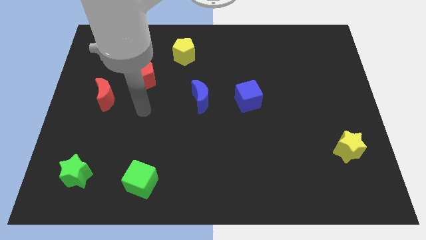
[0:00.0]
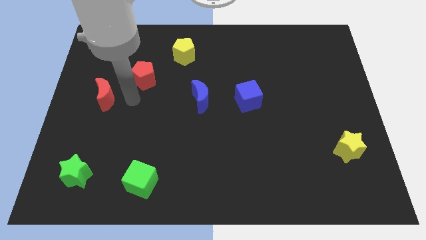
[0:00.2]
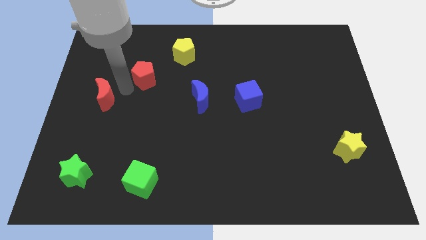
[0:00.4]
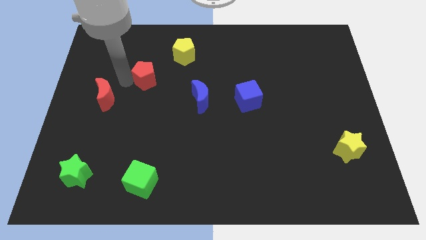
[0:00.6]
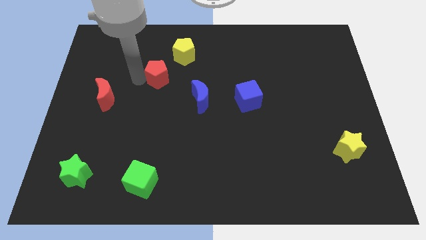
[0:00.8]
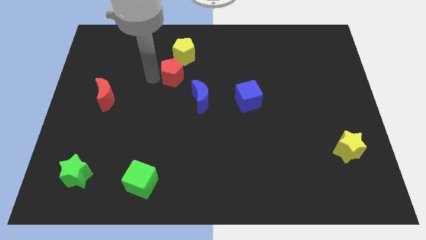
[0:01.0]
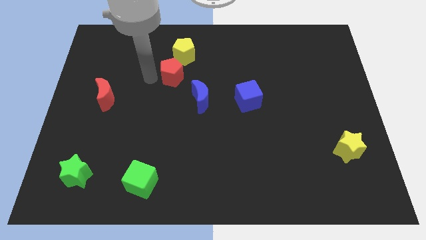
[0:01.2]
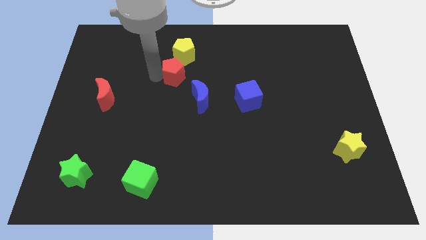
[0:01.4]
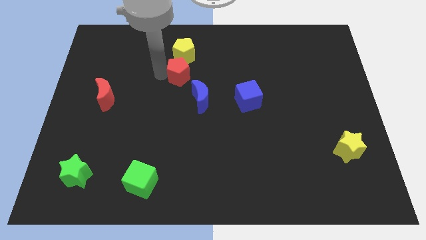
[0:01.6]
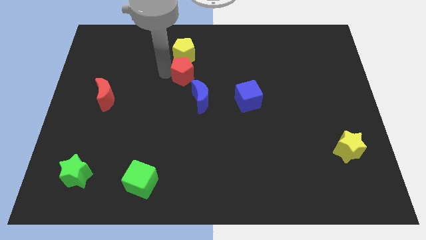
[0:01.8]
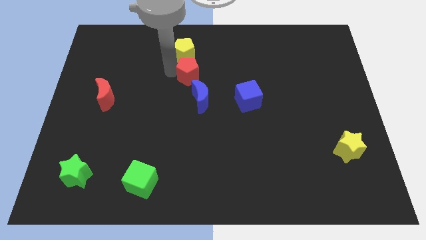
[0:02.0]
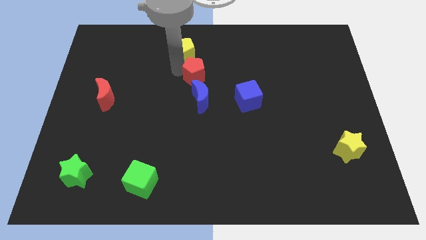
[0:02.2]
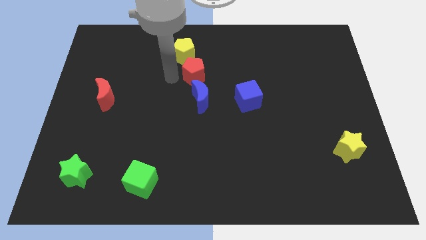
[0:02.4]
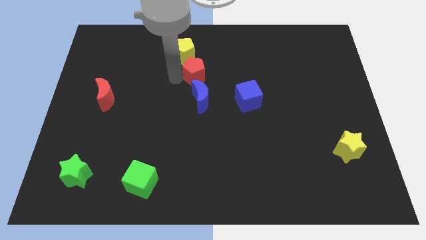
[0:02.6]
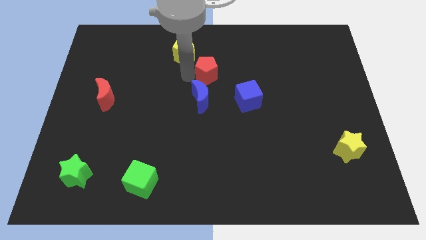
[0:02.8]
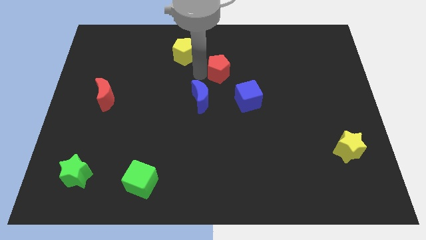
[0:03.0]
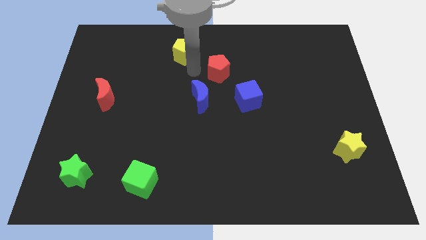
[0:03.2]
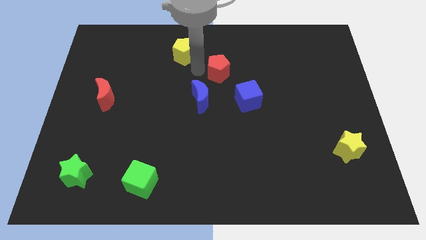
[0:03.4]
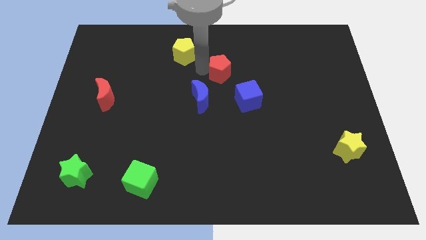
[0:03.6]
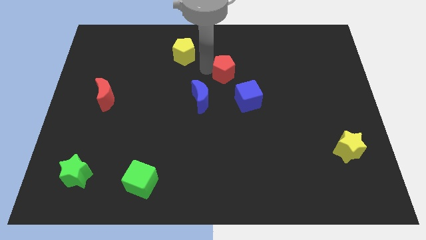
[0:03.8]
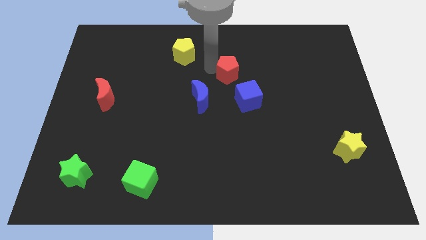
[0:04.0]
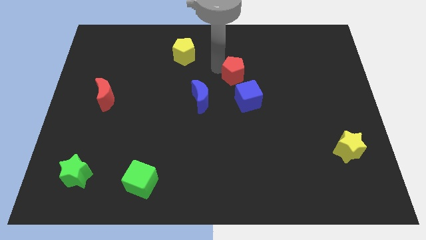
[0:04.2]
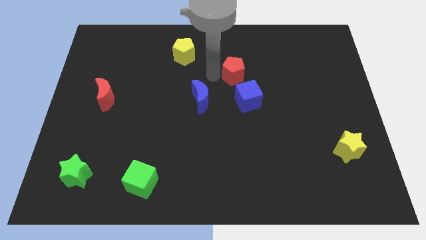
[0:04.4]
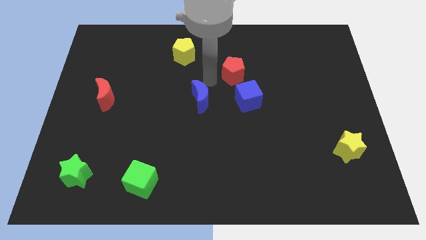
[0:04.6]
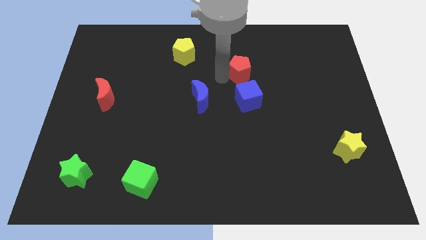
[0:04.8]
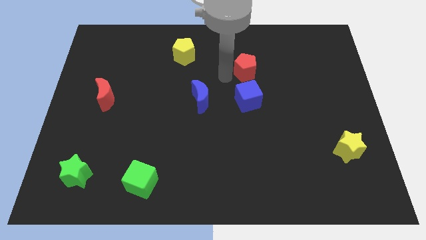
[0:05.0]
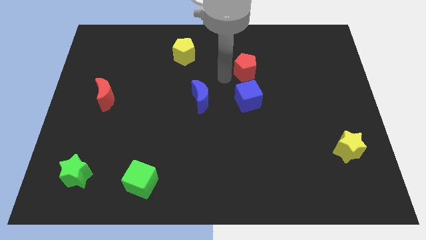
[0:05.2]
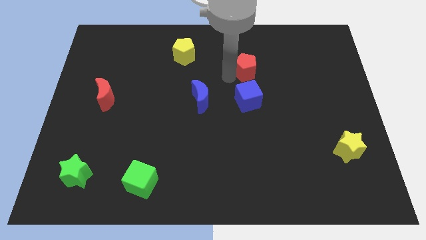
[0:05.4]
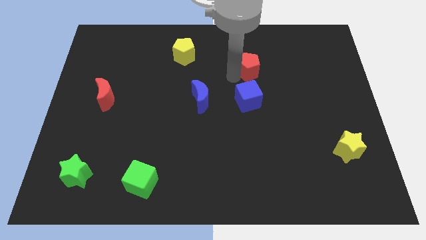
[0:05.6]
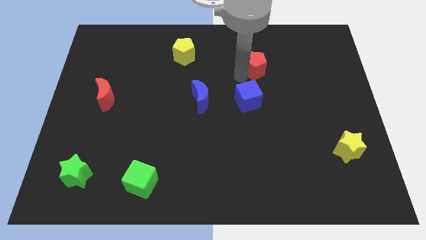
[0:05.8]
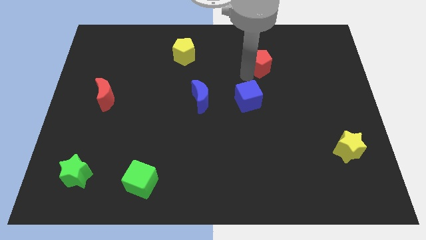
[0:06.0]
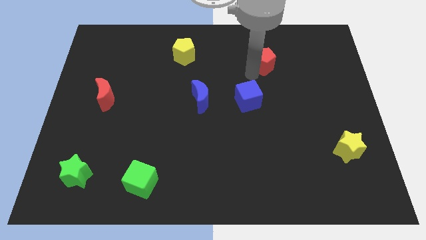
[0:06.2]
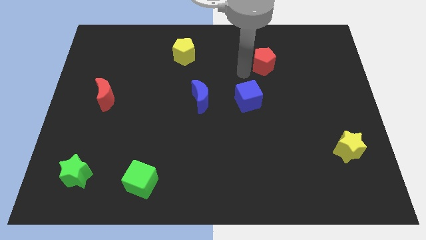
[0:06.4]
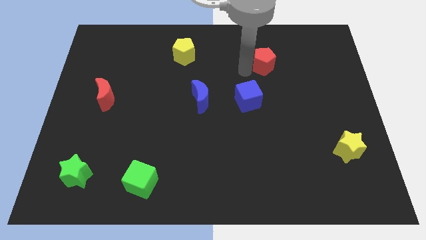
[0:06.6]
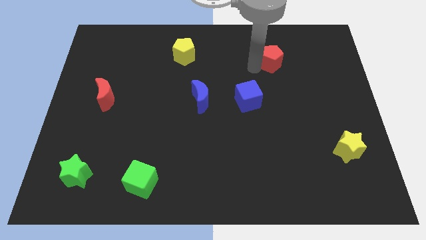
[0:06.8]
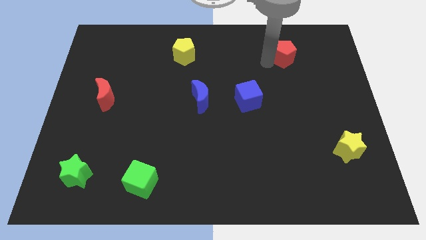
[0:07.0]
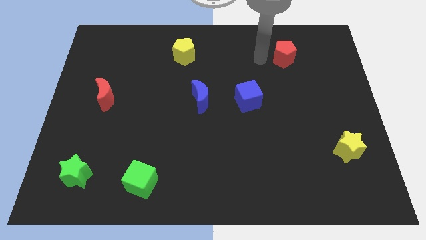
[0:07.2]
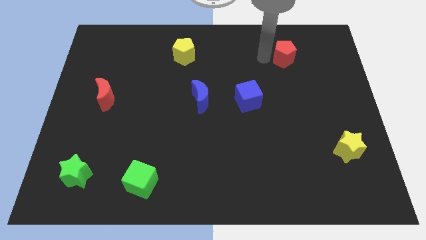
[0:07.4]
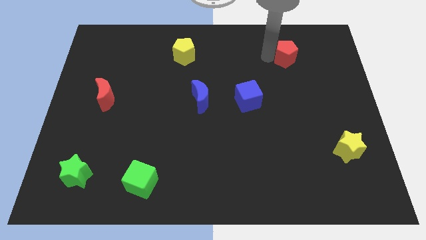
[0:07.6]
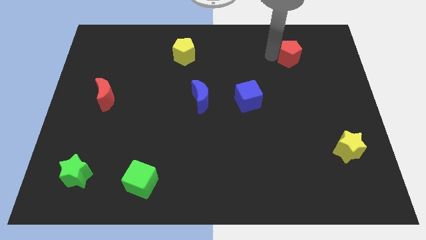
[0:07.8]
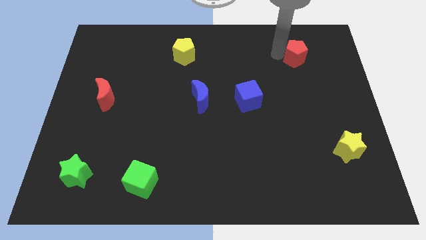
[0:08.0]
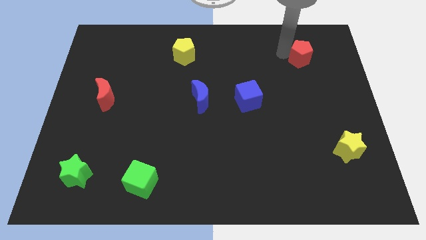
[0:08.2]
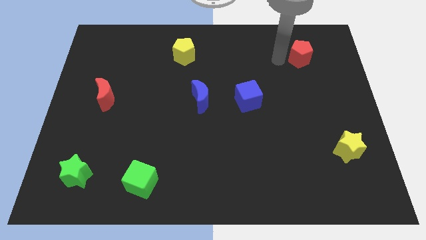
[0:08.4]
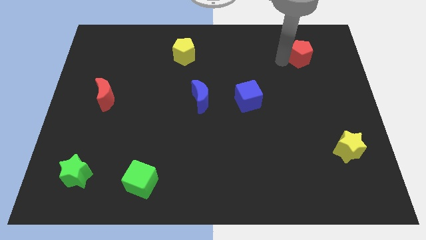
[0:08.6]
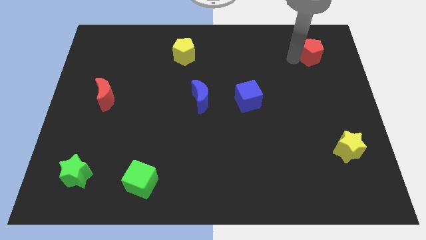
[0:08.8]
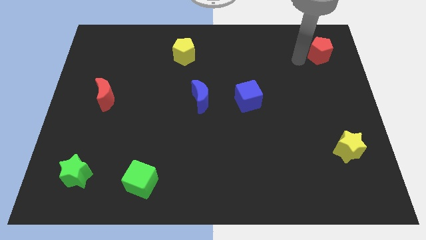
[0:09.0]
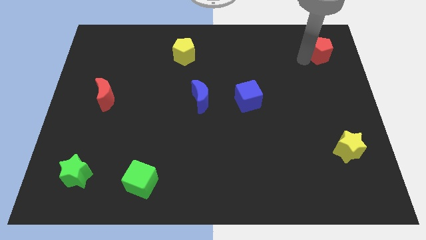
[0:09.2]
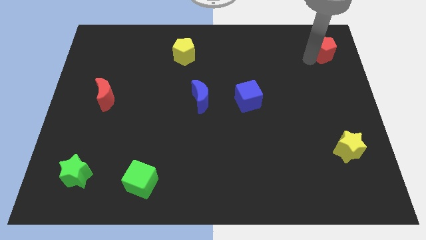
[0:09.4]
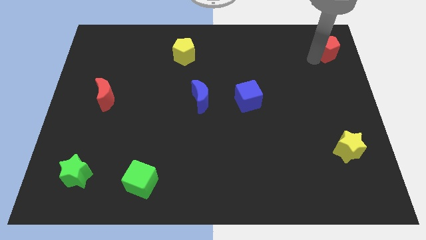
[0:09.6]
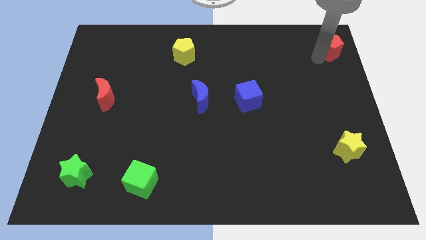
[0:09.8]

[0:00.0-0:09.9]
slide the red pentagon to the top right of the board

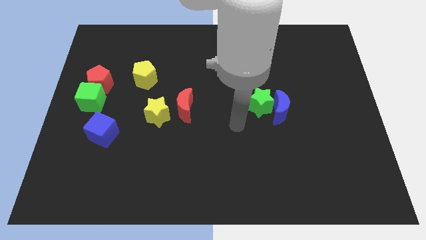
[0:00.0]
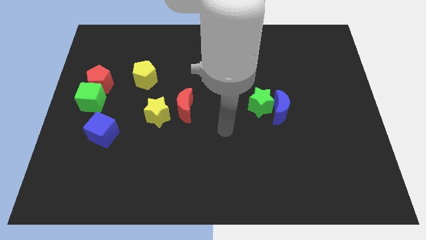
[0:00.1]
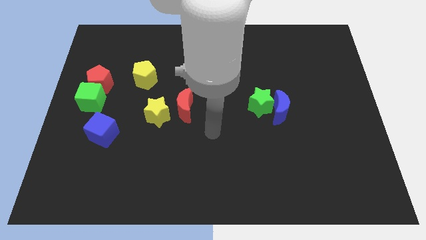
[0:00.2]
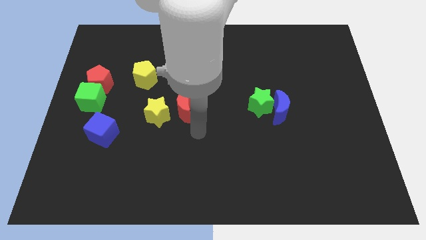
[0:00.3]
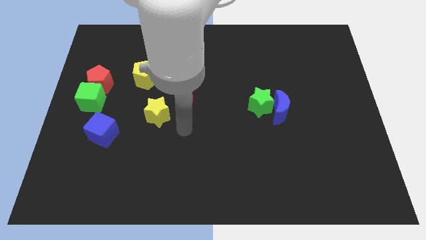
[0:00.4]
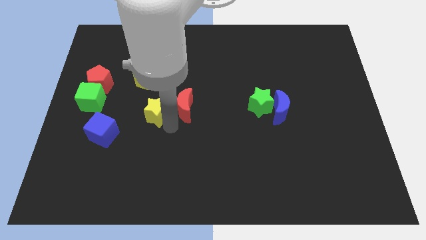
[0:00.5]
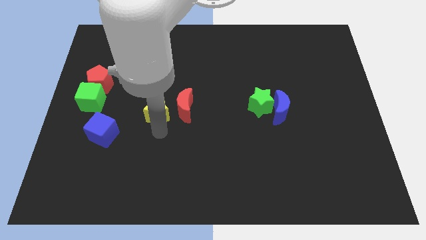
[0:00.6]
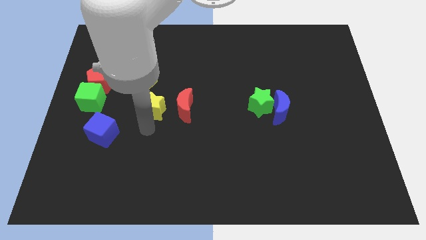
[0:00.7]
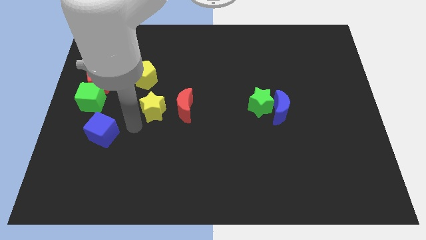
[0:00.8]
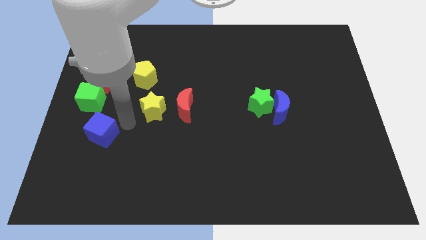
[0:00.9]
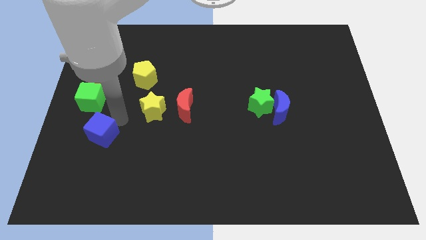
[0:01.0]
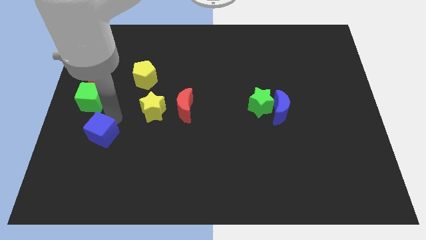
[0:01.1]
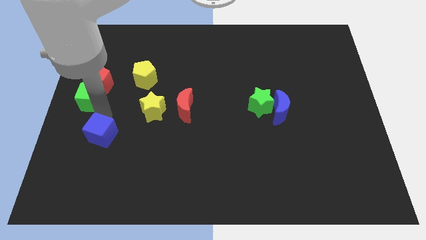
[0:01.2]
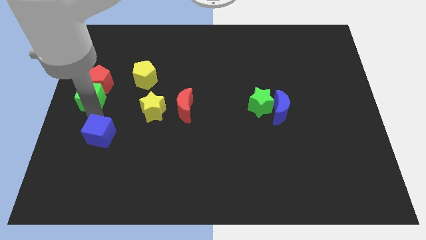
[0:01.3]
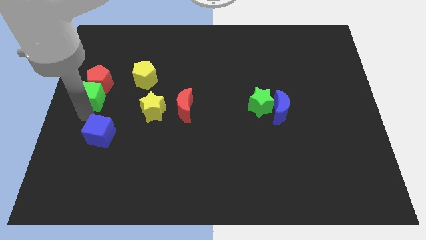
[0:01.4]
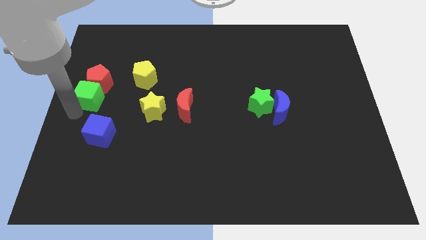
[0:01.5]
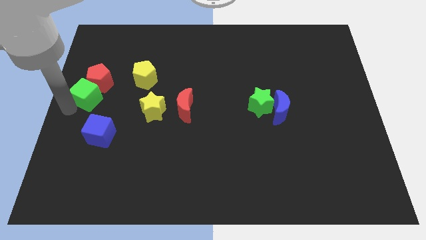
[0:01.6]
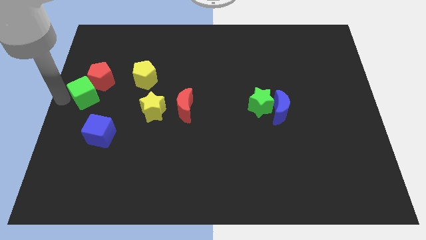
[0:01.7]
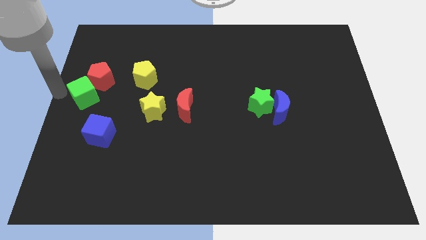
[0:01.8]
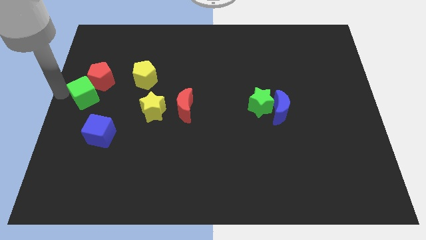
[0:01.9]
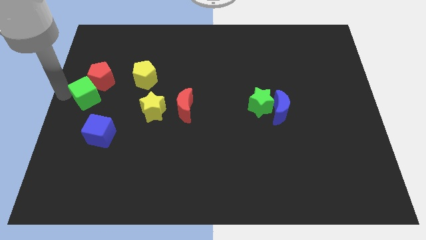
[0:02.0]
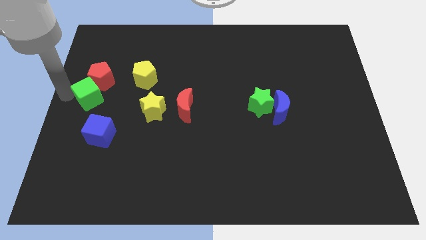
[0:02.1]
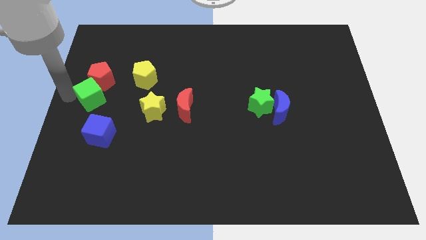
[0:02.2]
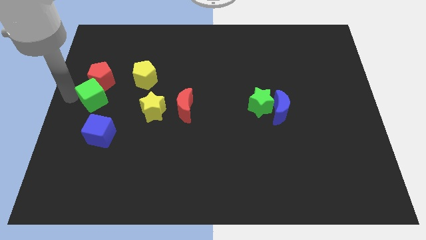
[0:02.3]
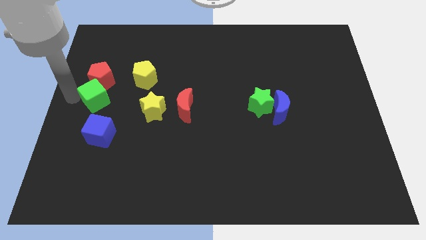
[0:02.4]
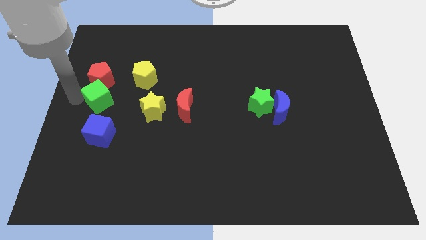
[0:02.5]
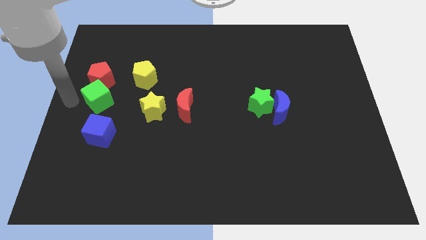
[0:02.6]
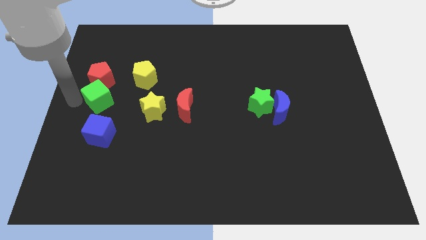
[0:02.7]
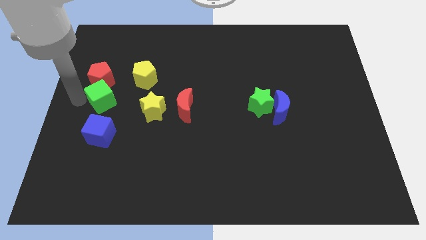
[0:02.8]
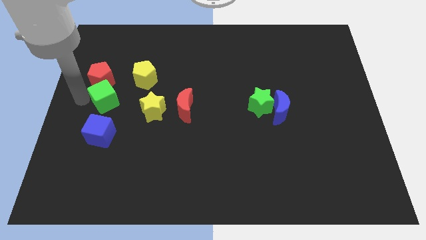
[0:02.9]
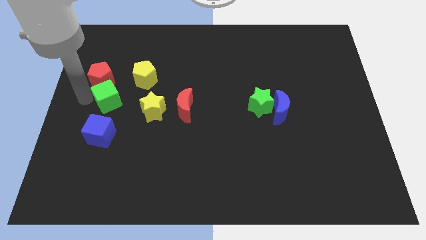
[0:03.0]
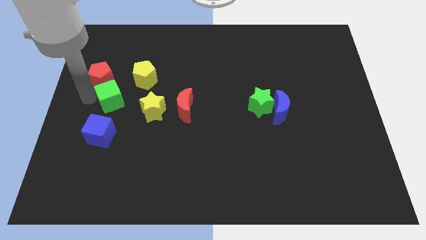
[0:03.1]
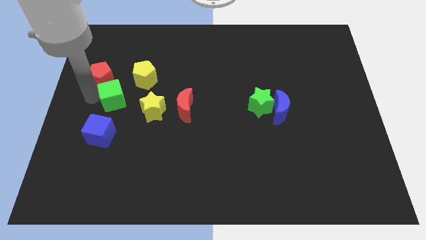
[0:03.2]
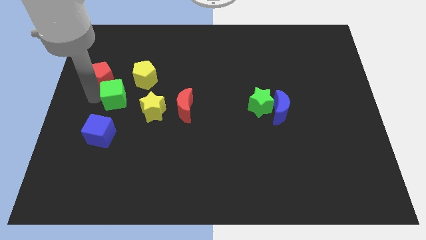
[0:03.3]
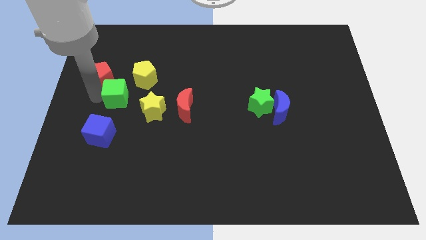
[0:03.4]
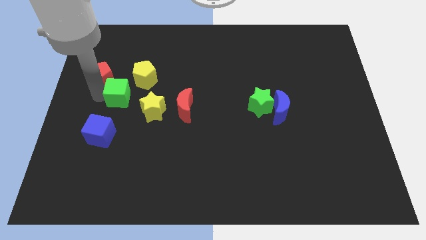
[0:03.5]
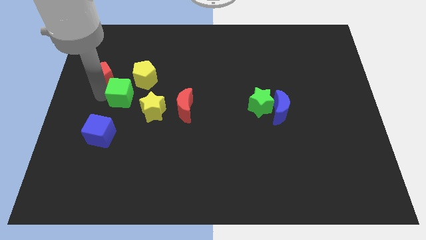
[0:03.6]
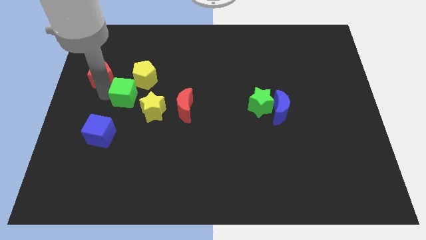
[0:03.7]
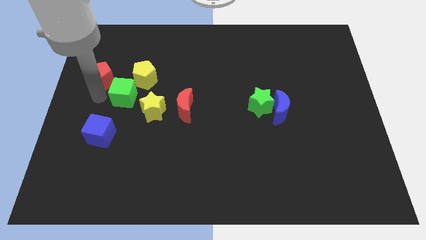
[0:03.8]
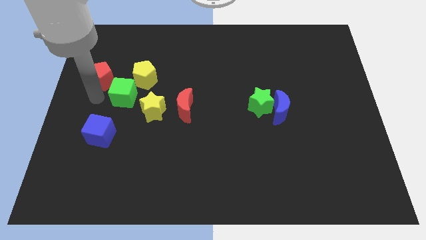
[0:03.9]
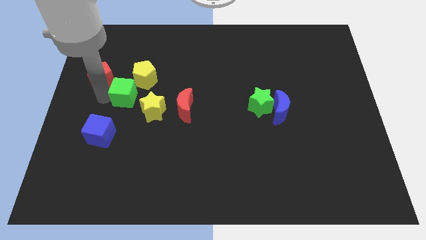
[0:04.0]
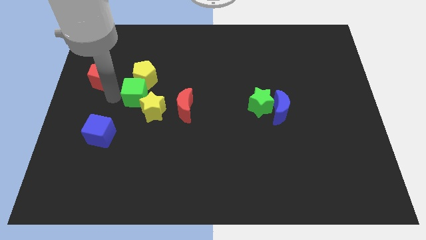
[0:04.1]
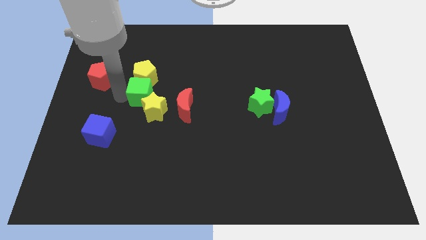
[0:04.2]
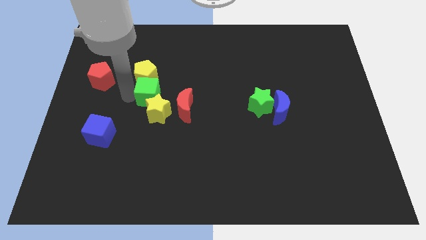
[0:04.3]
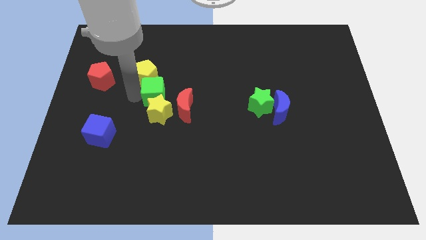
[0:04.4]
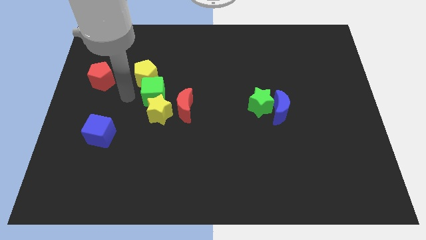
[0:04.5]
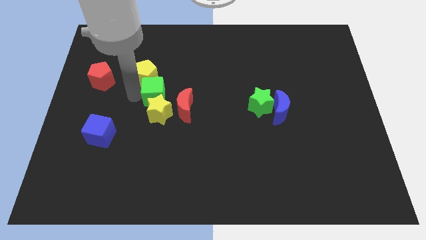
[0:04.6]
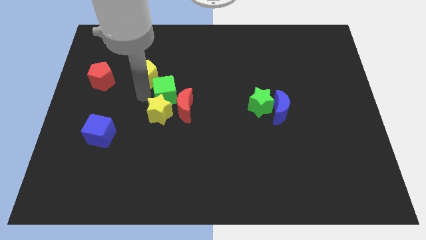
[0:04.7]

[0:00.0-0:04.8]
push the green cube to the middle
